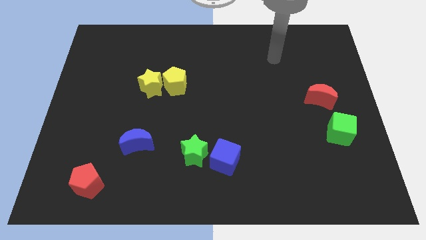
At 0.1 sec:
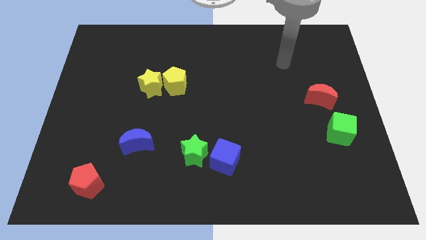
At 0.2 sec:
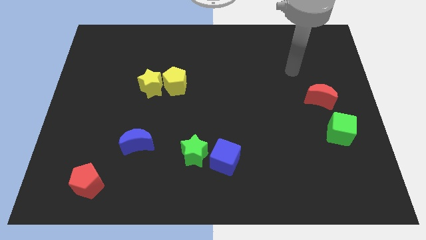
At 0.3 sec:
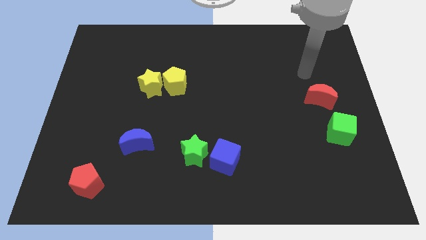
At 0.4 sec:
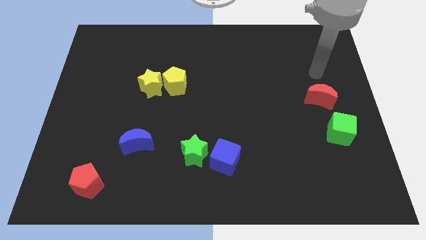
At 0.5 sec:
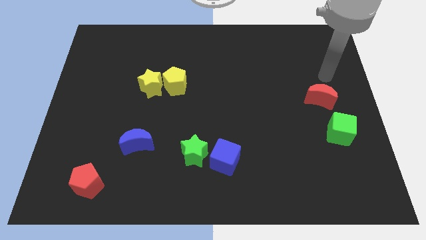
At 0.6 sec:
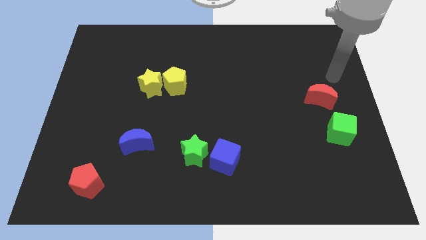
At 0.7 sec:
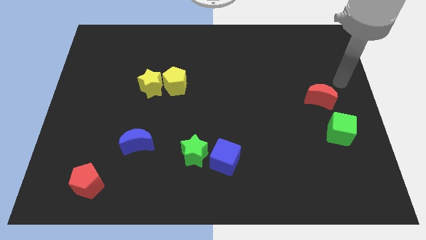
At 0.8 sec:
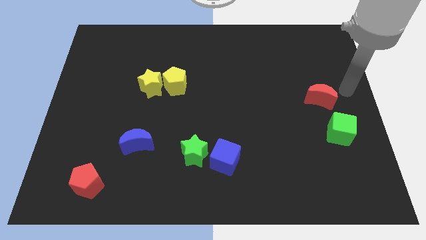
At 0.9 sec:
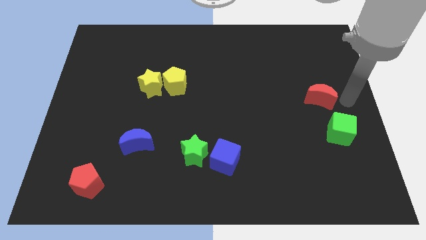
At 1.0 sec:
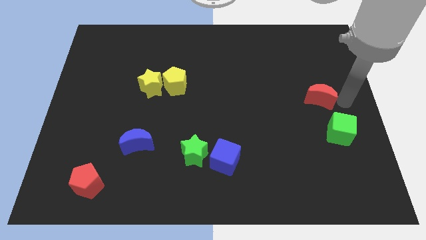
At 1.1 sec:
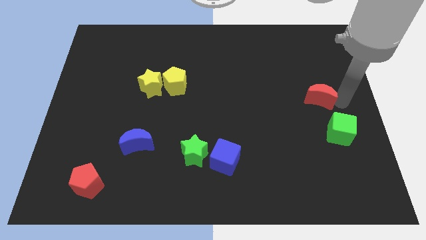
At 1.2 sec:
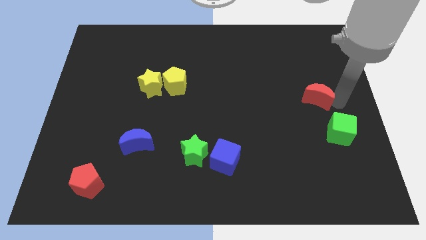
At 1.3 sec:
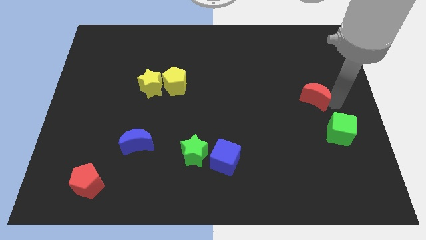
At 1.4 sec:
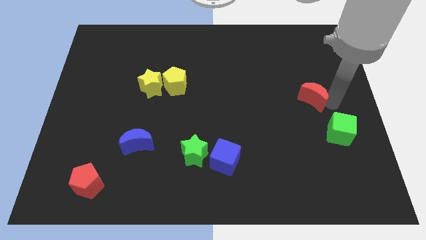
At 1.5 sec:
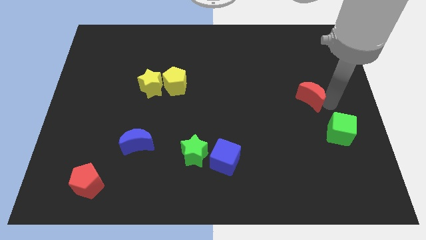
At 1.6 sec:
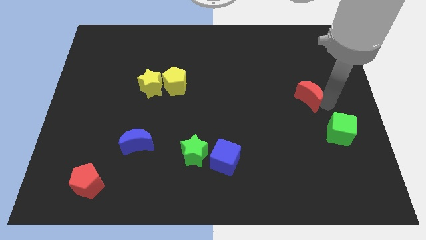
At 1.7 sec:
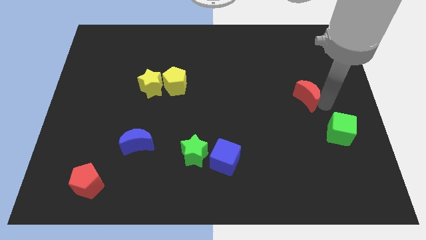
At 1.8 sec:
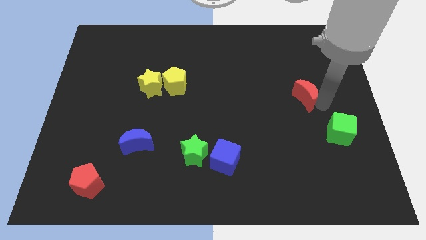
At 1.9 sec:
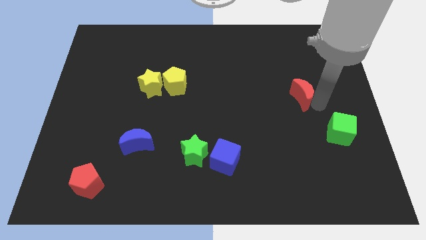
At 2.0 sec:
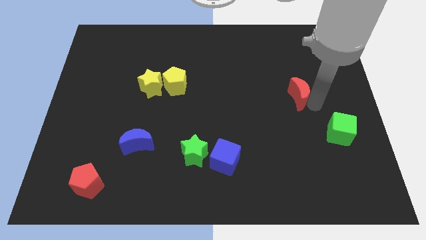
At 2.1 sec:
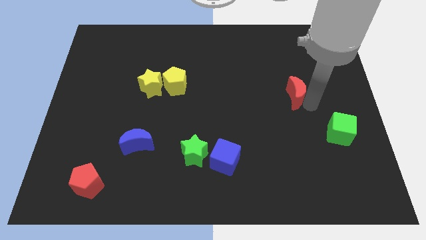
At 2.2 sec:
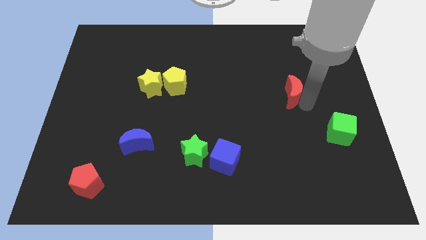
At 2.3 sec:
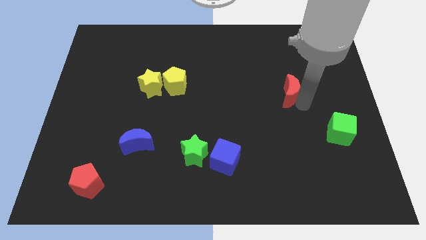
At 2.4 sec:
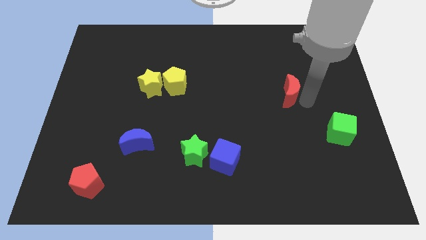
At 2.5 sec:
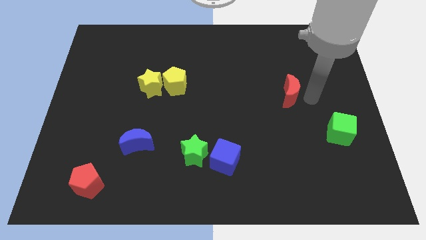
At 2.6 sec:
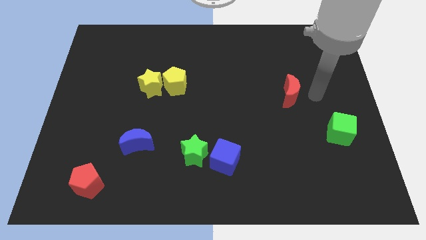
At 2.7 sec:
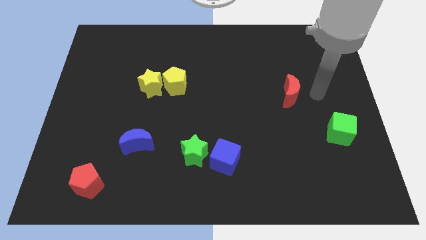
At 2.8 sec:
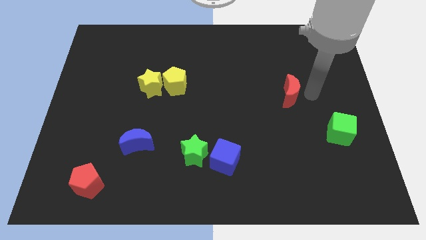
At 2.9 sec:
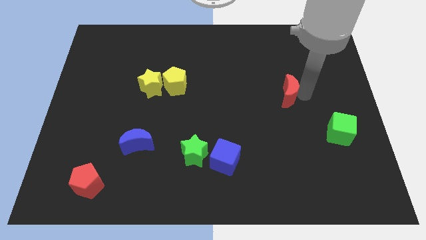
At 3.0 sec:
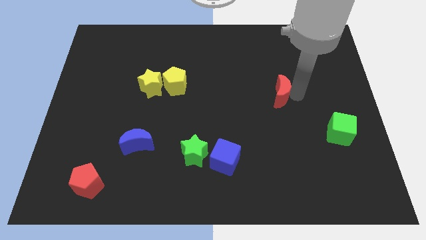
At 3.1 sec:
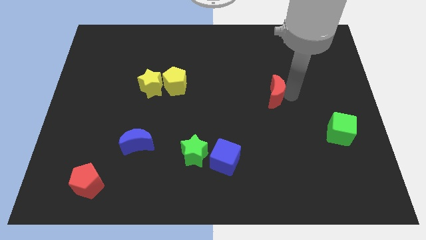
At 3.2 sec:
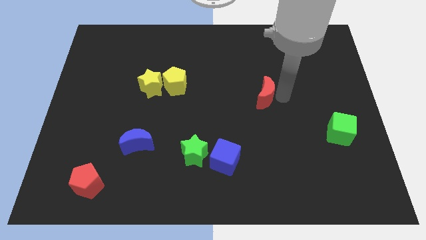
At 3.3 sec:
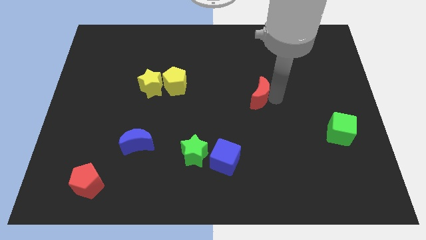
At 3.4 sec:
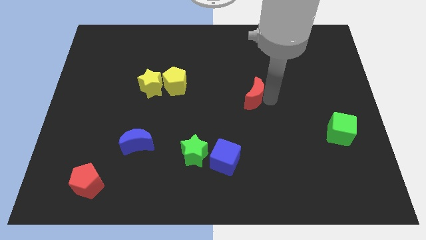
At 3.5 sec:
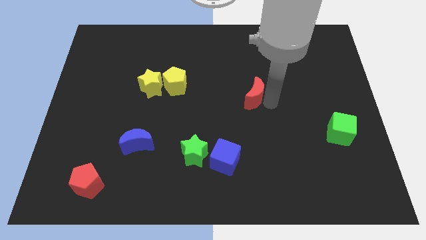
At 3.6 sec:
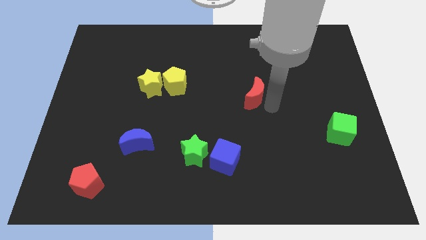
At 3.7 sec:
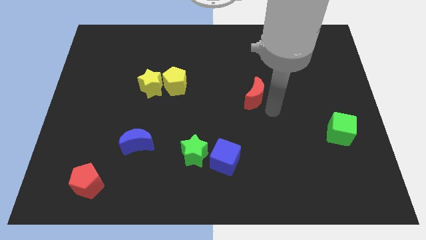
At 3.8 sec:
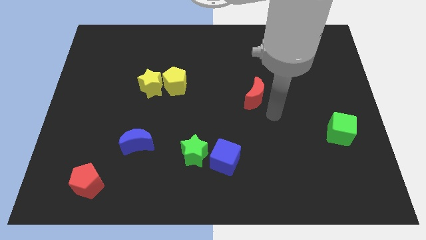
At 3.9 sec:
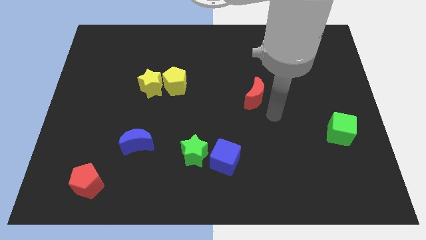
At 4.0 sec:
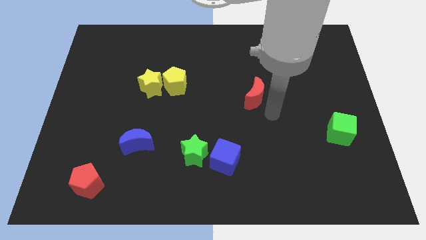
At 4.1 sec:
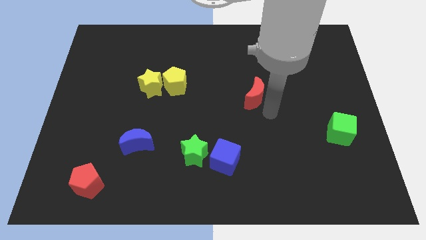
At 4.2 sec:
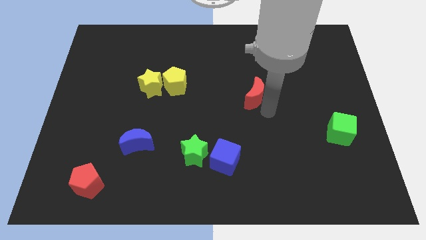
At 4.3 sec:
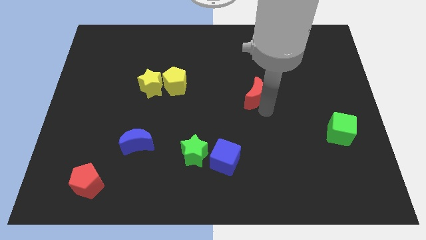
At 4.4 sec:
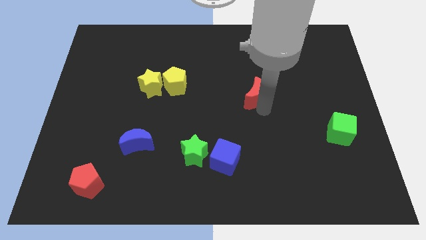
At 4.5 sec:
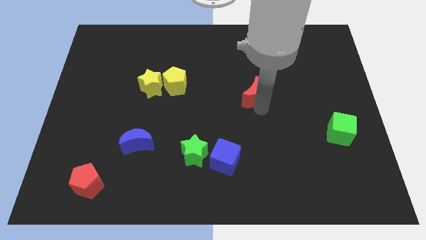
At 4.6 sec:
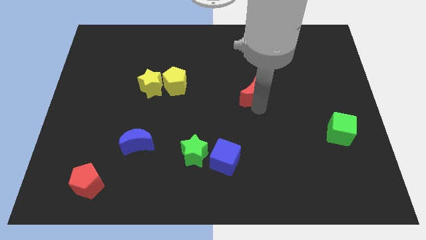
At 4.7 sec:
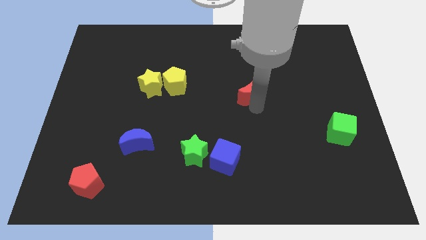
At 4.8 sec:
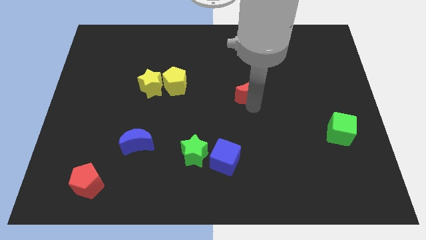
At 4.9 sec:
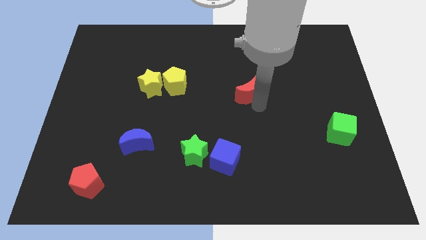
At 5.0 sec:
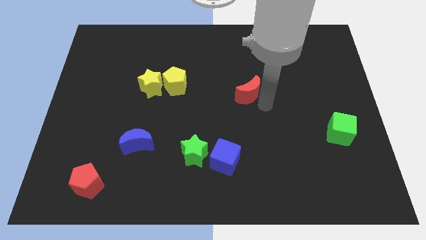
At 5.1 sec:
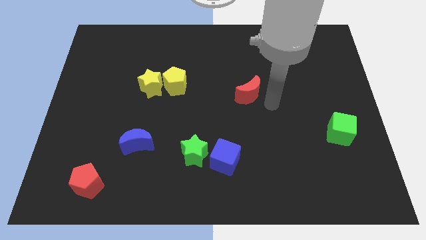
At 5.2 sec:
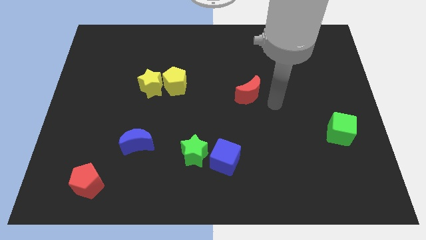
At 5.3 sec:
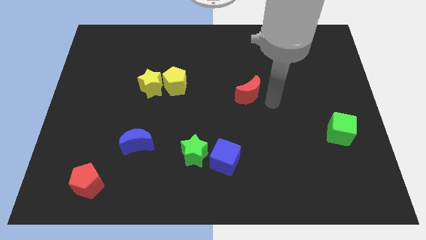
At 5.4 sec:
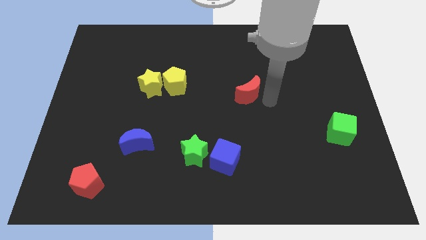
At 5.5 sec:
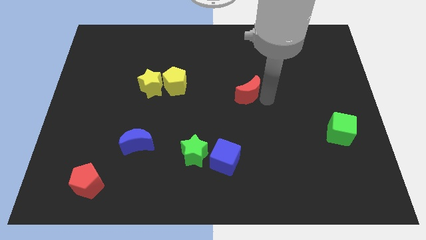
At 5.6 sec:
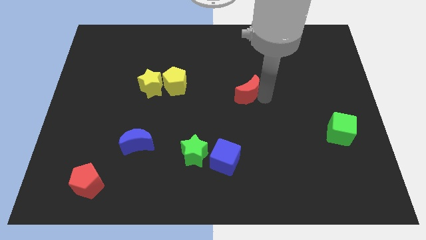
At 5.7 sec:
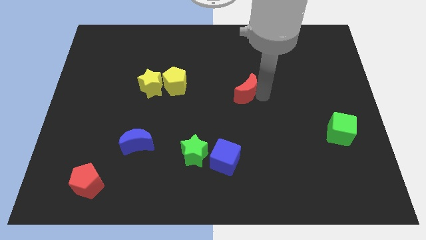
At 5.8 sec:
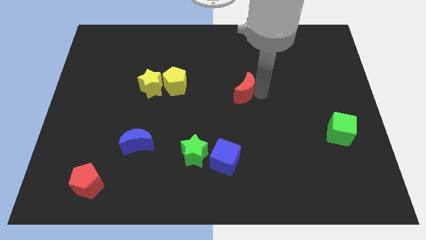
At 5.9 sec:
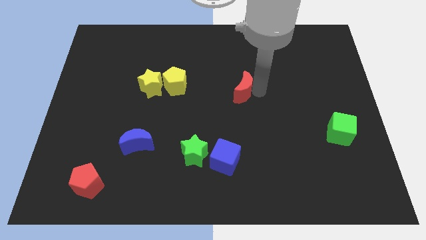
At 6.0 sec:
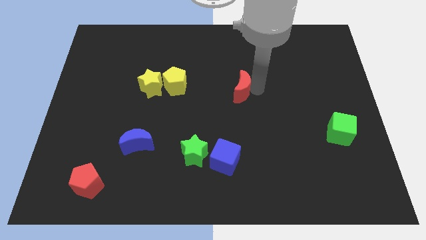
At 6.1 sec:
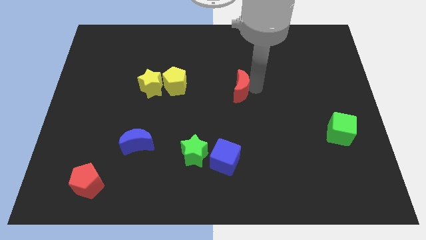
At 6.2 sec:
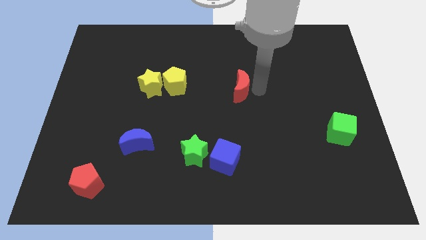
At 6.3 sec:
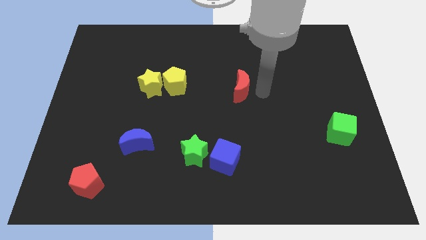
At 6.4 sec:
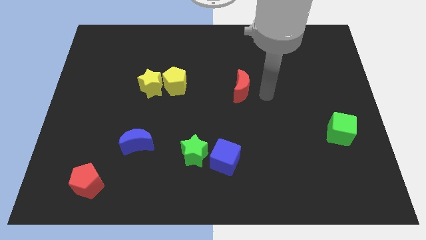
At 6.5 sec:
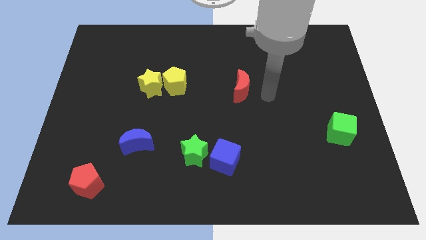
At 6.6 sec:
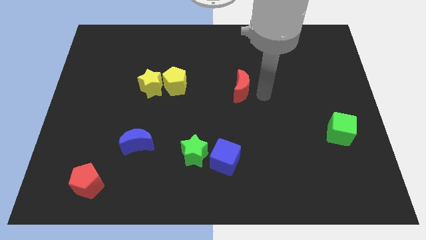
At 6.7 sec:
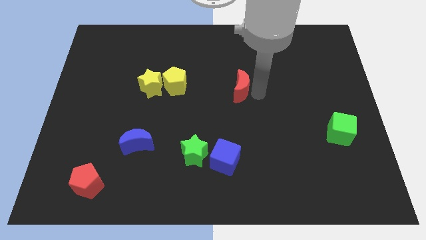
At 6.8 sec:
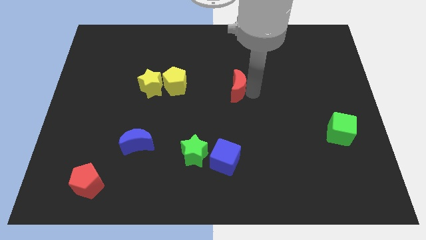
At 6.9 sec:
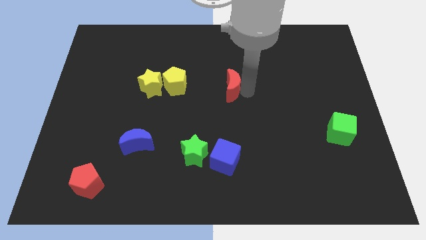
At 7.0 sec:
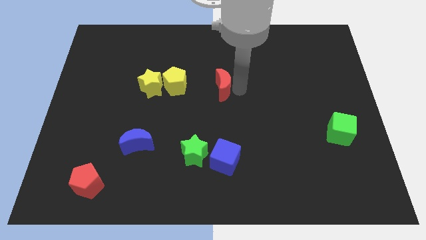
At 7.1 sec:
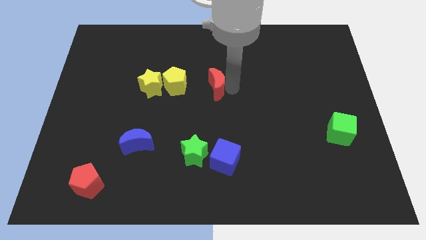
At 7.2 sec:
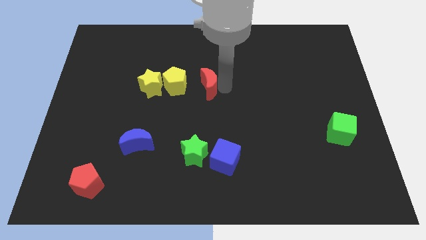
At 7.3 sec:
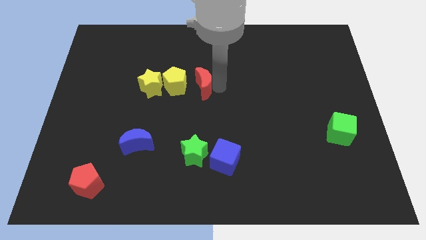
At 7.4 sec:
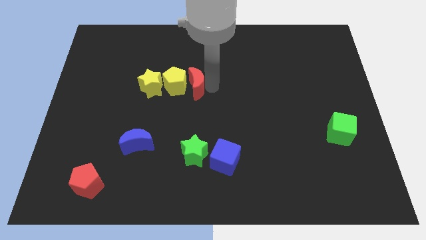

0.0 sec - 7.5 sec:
move the red moon towards the yellow pentagon
